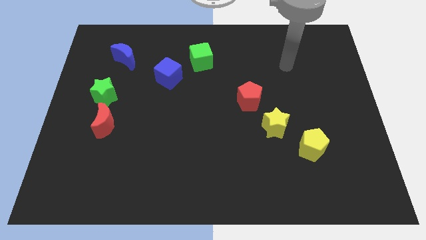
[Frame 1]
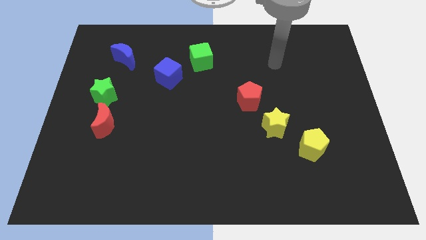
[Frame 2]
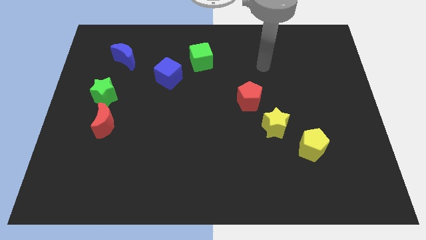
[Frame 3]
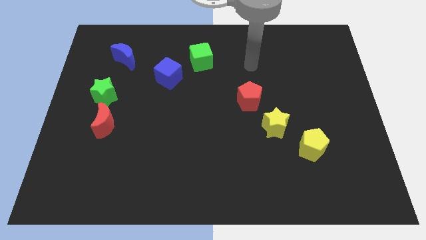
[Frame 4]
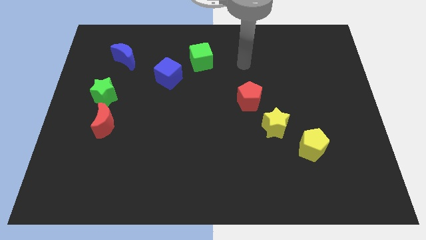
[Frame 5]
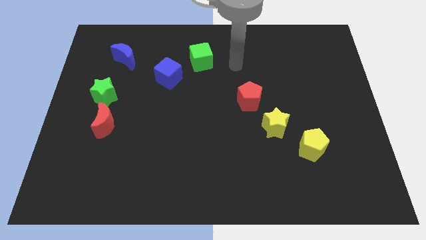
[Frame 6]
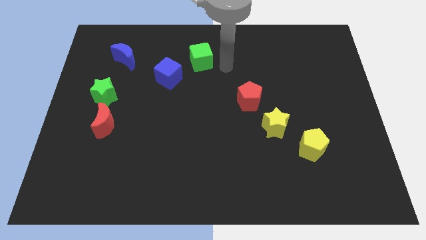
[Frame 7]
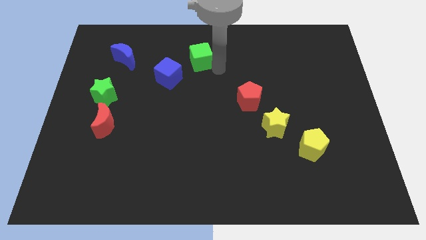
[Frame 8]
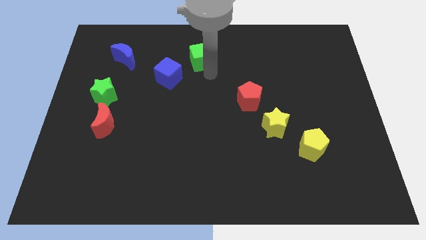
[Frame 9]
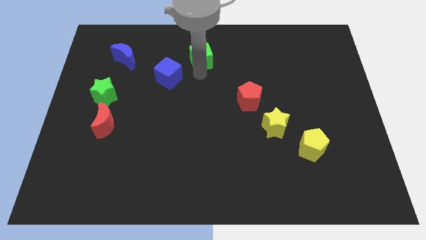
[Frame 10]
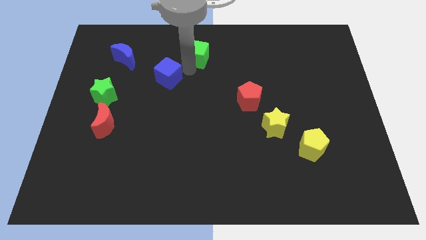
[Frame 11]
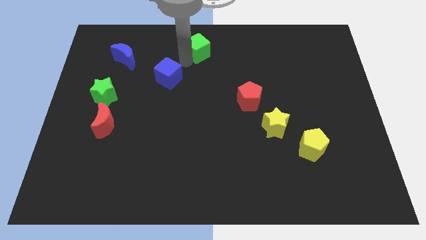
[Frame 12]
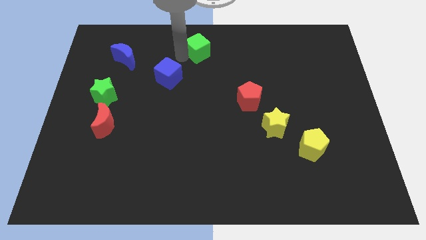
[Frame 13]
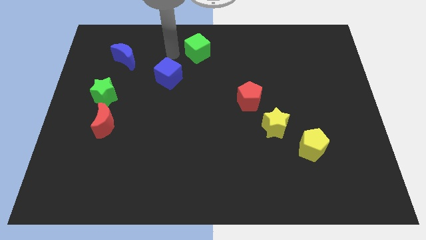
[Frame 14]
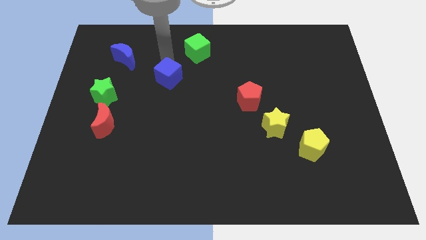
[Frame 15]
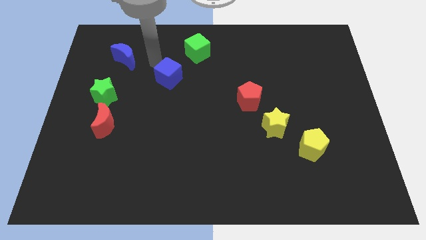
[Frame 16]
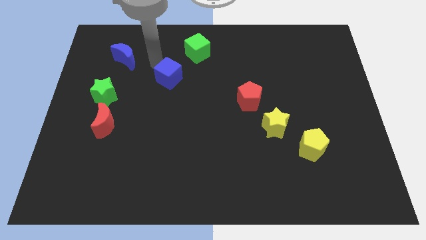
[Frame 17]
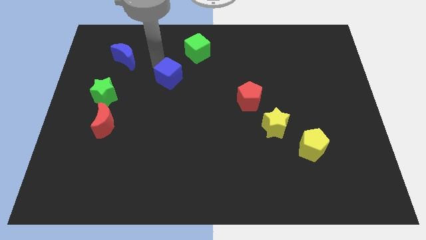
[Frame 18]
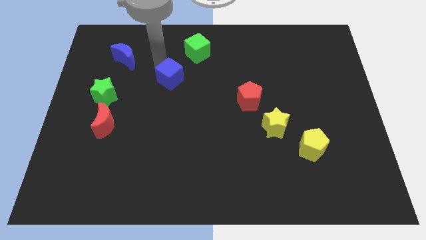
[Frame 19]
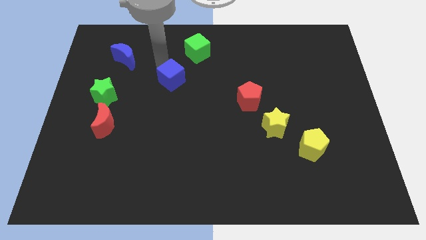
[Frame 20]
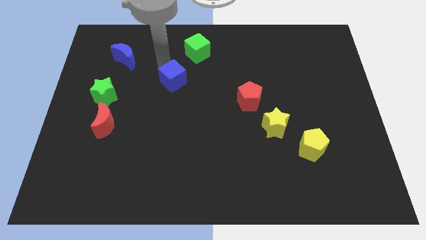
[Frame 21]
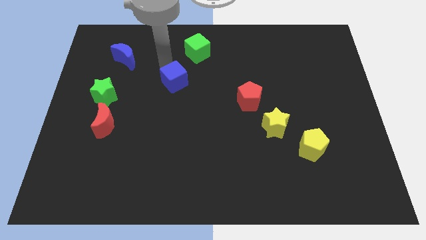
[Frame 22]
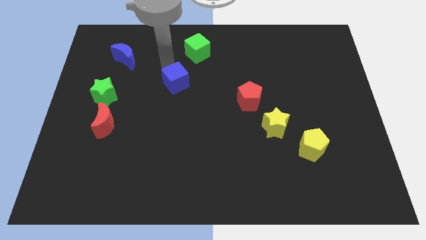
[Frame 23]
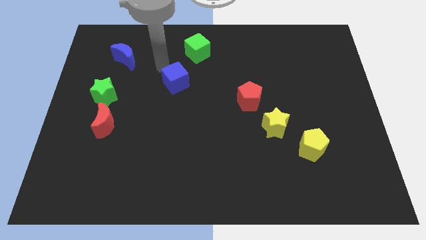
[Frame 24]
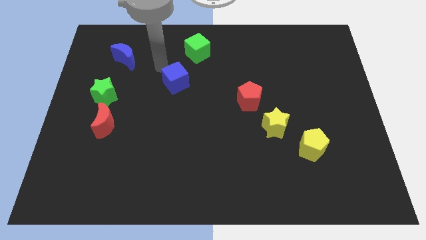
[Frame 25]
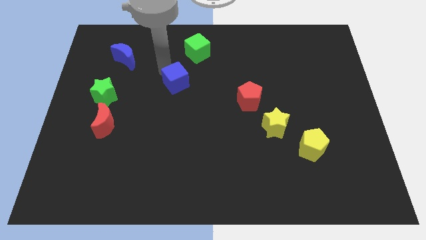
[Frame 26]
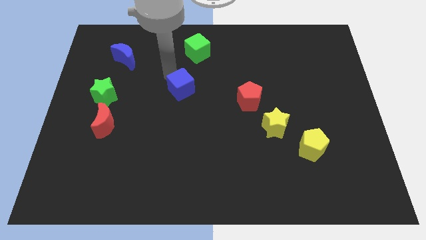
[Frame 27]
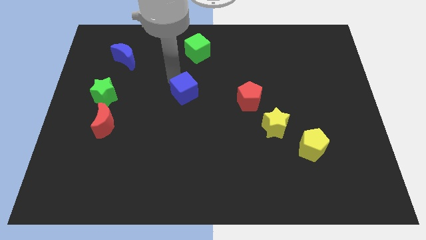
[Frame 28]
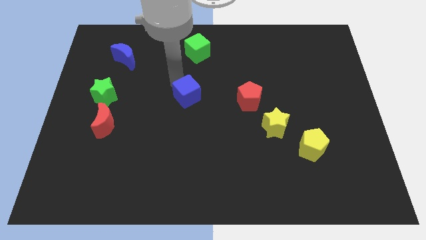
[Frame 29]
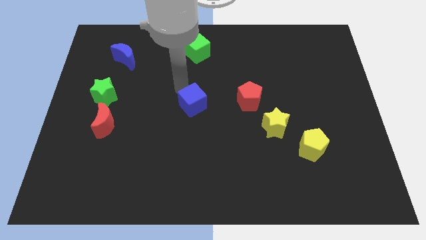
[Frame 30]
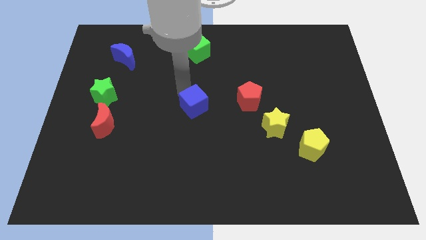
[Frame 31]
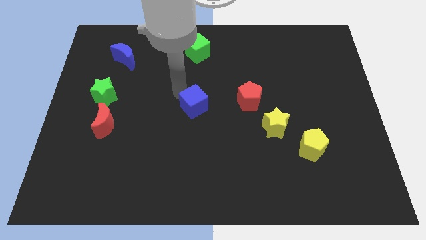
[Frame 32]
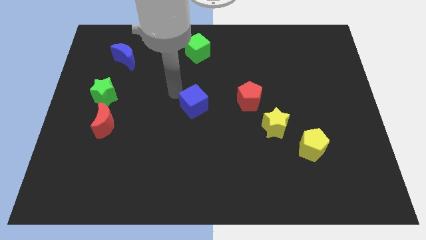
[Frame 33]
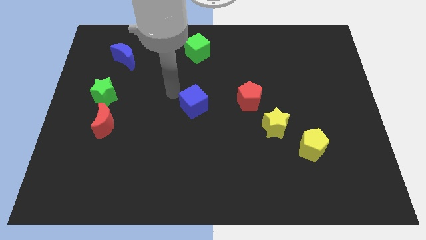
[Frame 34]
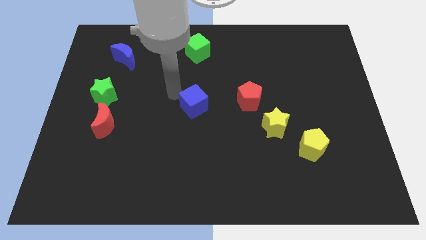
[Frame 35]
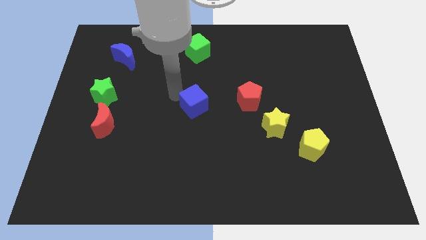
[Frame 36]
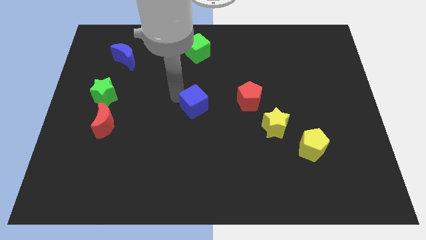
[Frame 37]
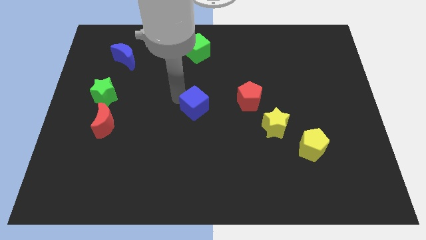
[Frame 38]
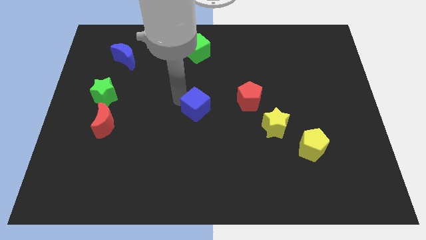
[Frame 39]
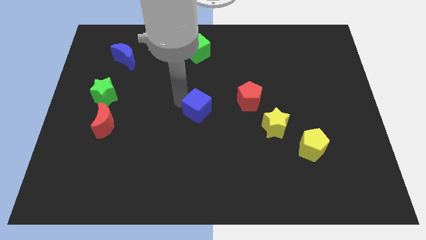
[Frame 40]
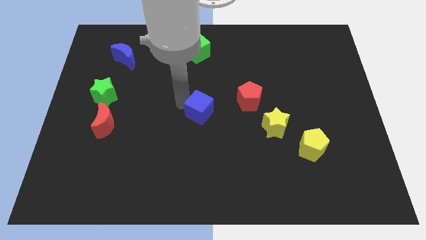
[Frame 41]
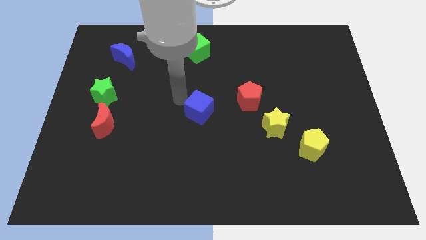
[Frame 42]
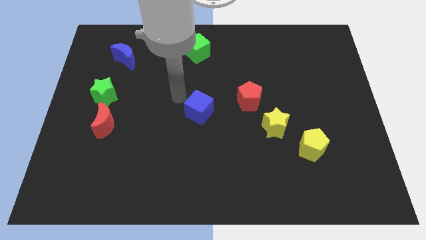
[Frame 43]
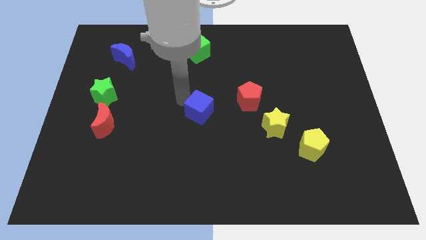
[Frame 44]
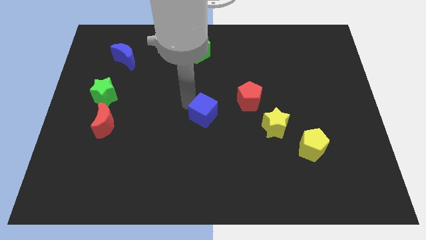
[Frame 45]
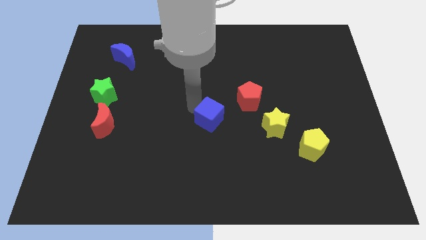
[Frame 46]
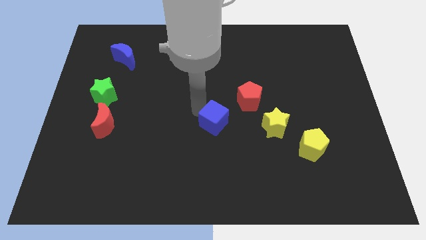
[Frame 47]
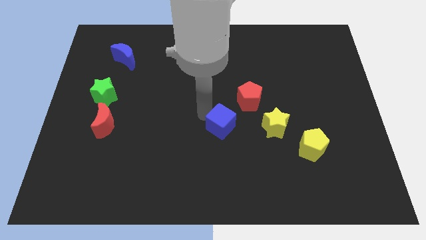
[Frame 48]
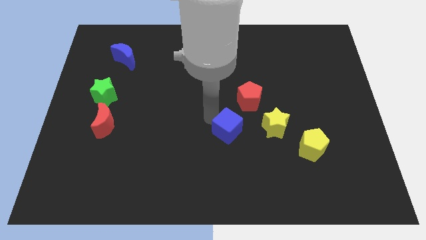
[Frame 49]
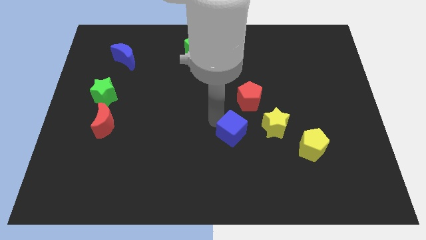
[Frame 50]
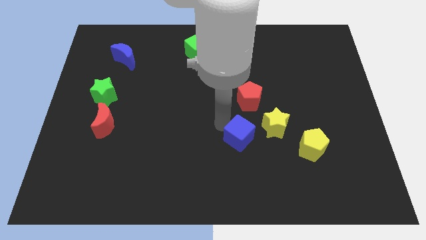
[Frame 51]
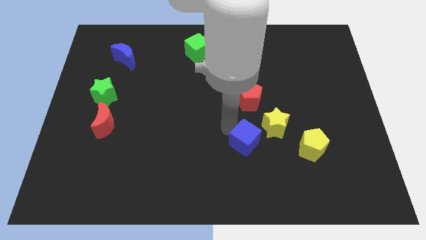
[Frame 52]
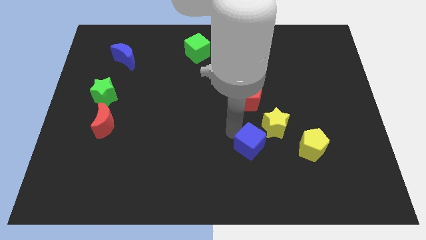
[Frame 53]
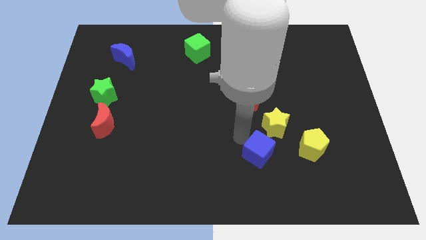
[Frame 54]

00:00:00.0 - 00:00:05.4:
push the blue cube below the yellow star

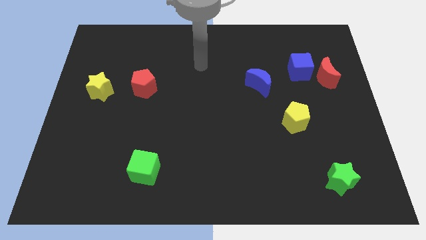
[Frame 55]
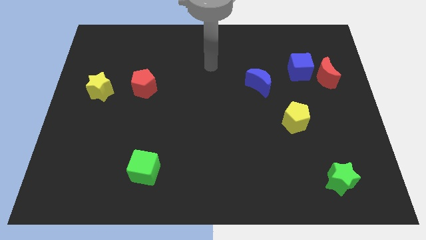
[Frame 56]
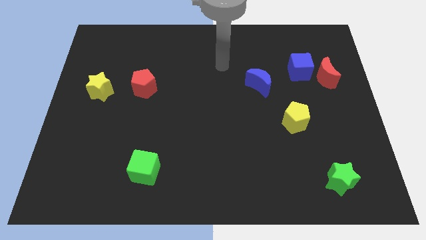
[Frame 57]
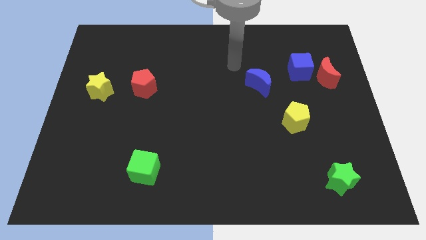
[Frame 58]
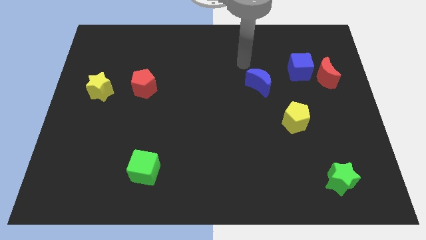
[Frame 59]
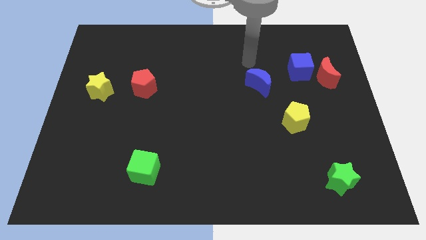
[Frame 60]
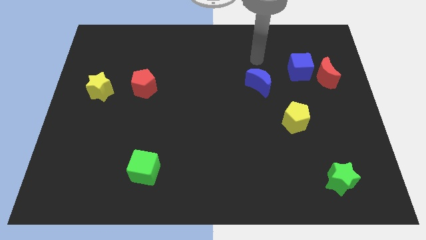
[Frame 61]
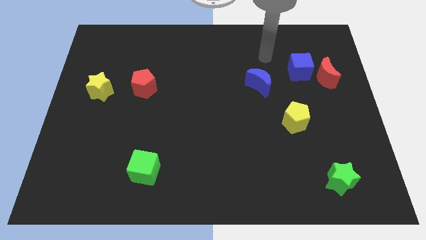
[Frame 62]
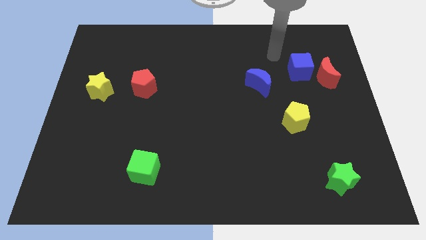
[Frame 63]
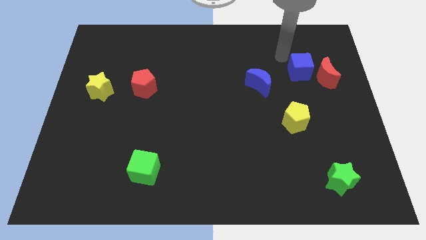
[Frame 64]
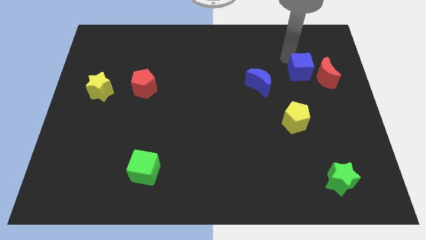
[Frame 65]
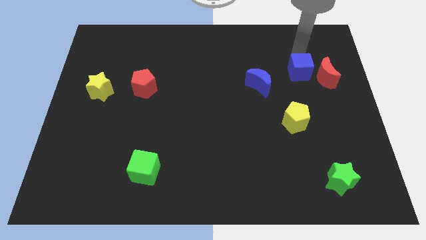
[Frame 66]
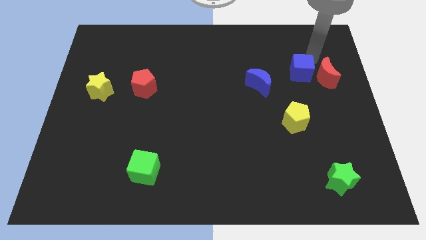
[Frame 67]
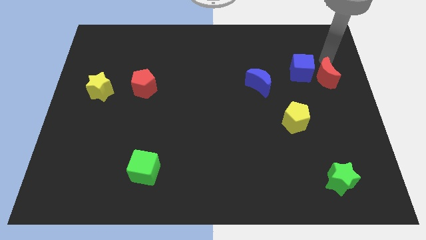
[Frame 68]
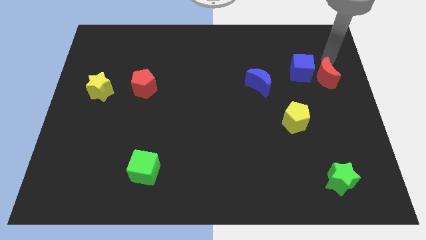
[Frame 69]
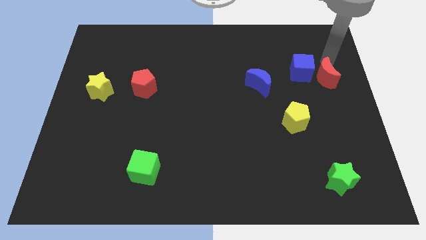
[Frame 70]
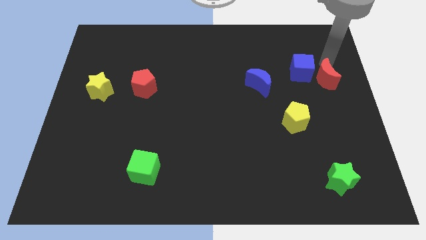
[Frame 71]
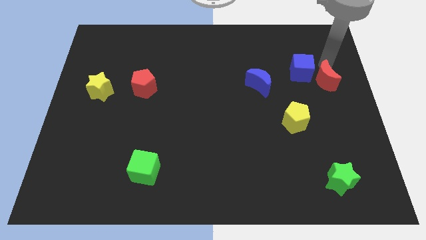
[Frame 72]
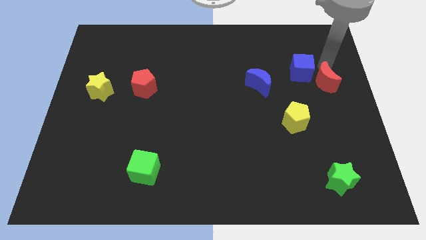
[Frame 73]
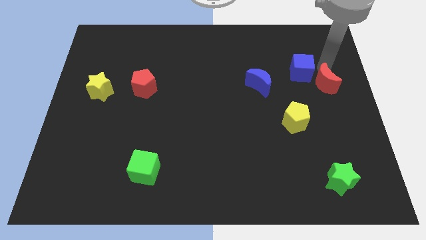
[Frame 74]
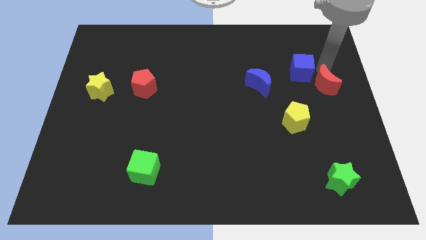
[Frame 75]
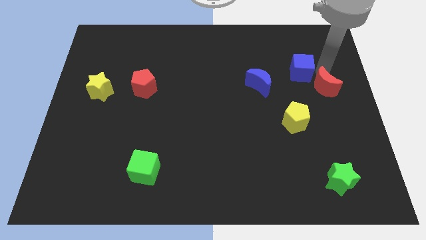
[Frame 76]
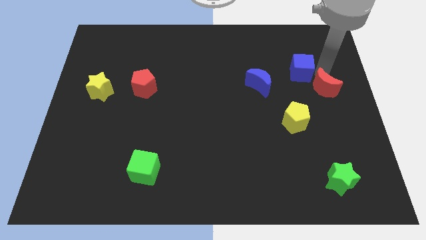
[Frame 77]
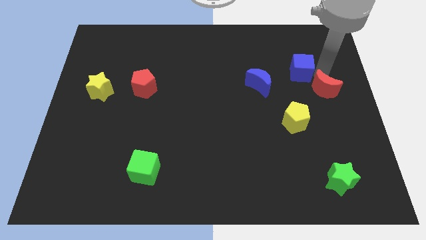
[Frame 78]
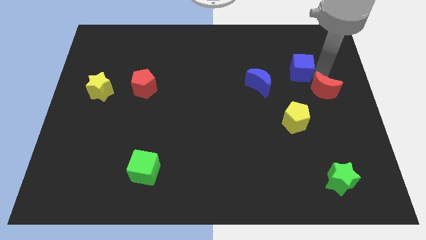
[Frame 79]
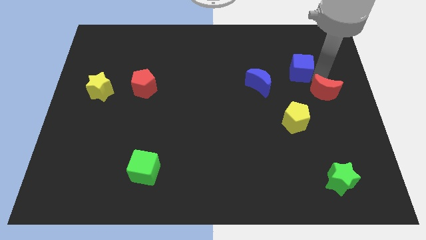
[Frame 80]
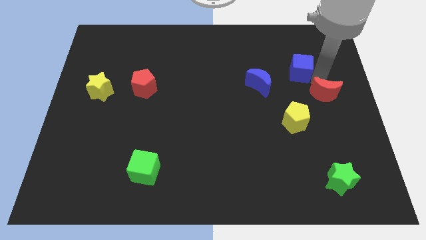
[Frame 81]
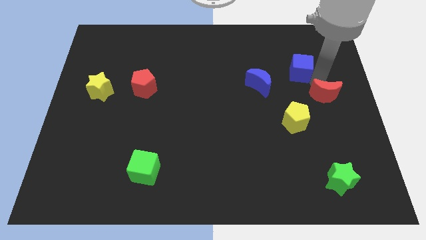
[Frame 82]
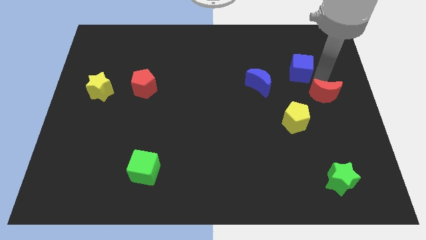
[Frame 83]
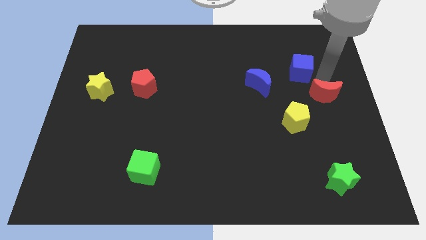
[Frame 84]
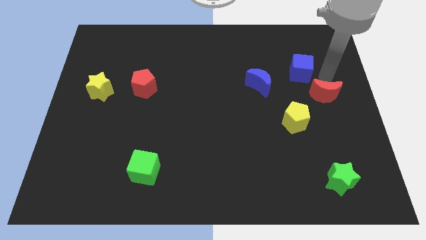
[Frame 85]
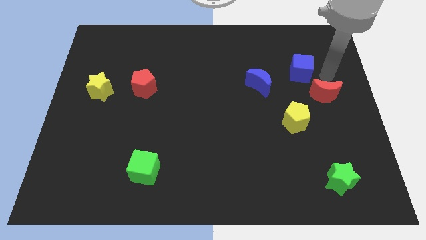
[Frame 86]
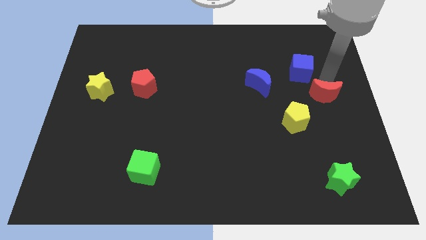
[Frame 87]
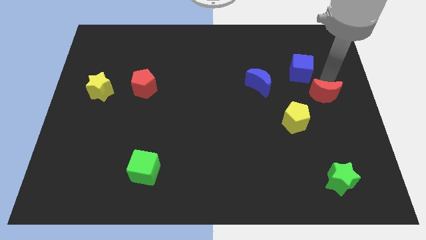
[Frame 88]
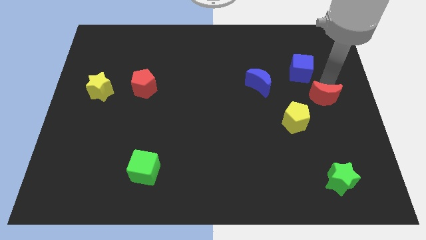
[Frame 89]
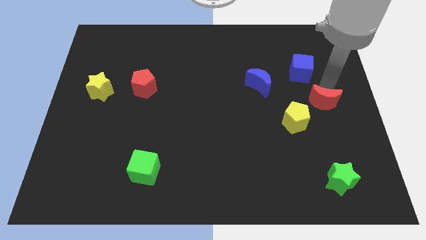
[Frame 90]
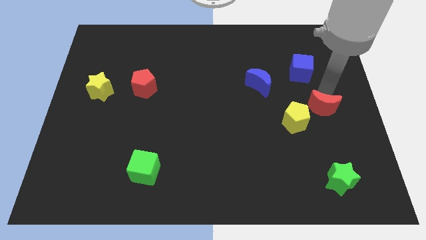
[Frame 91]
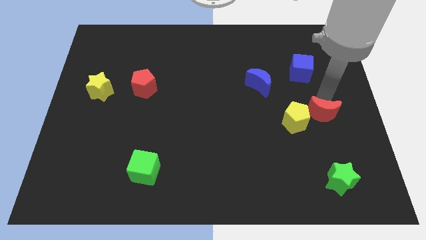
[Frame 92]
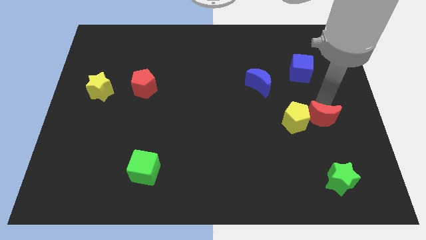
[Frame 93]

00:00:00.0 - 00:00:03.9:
slide the red moon above the green star
